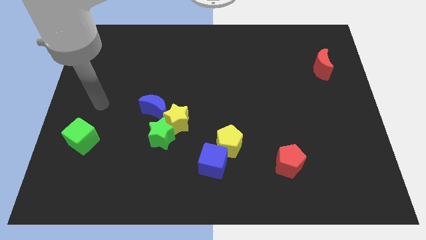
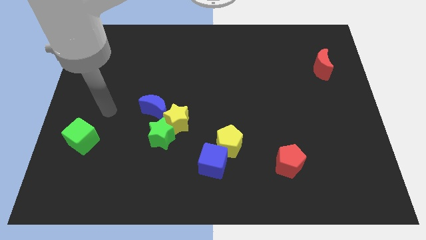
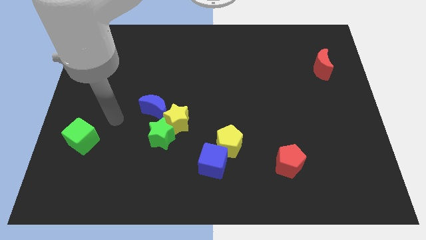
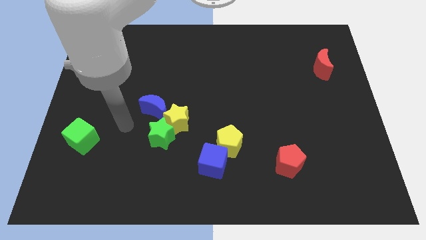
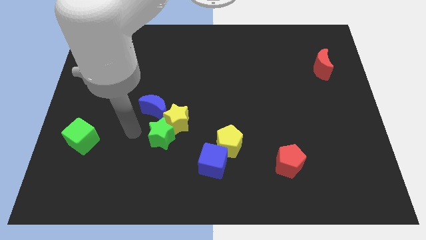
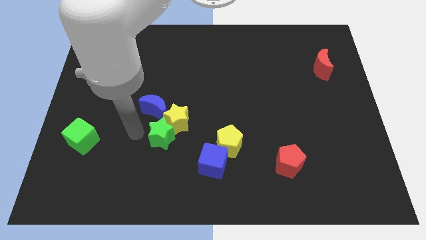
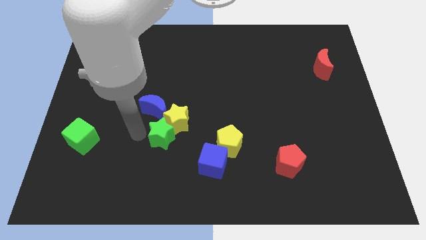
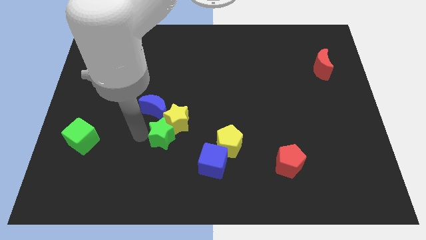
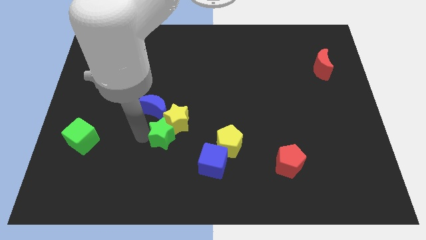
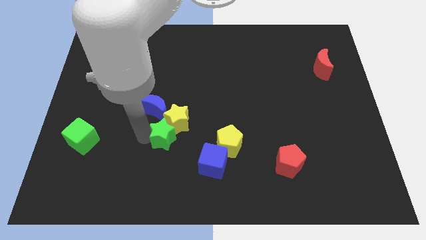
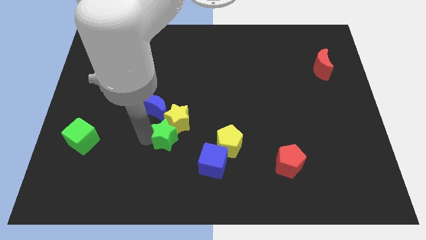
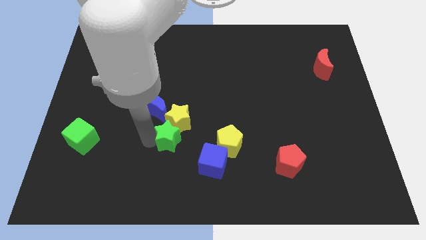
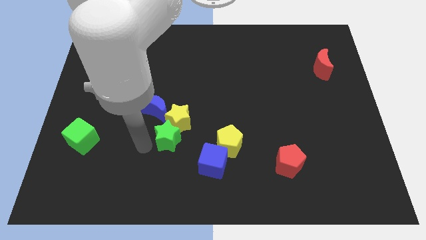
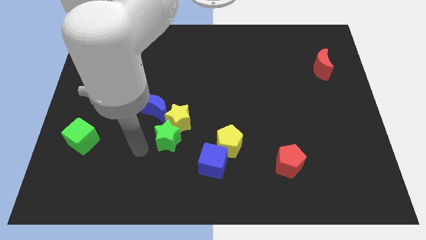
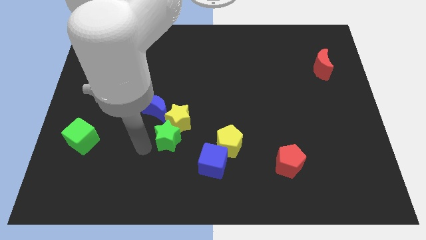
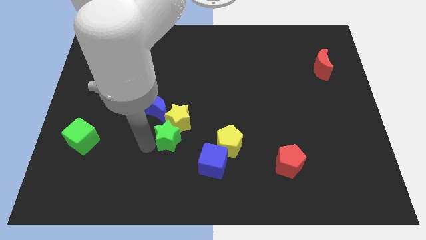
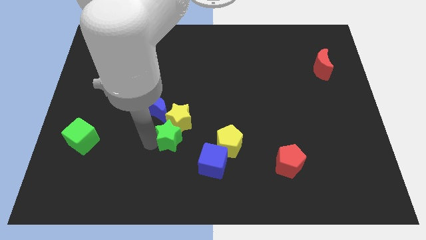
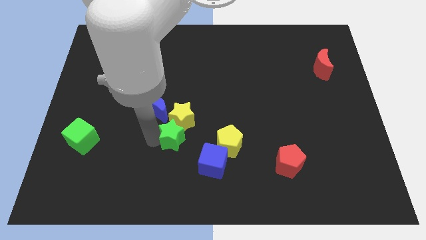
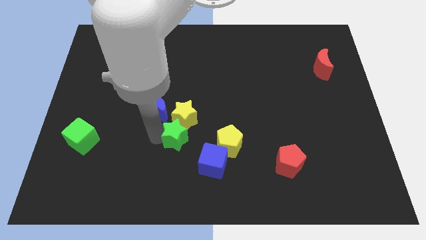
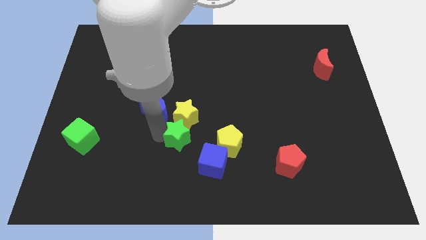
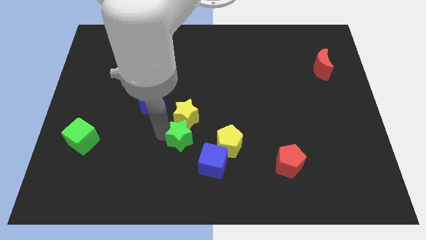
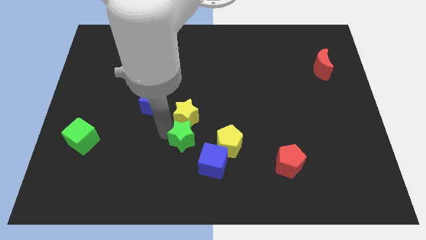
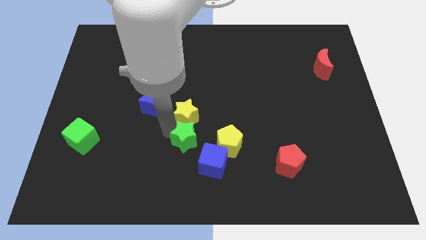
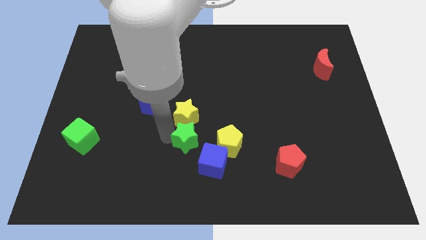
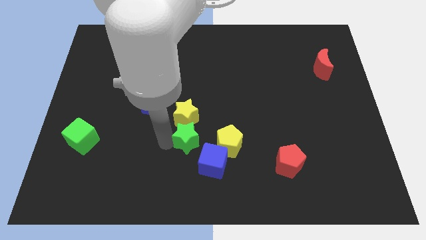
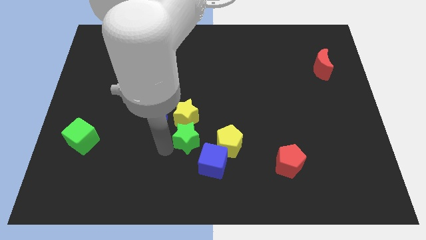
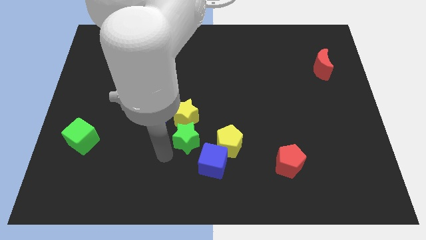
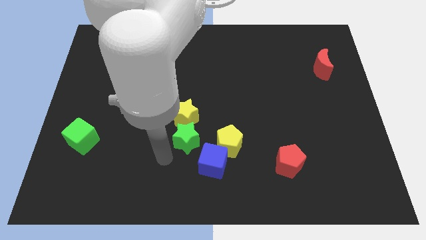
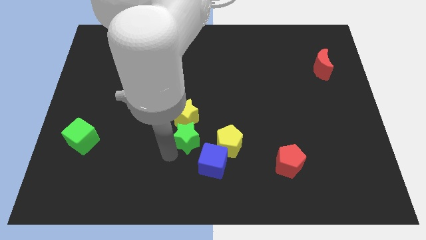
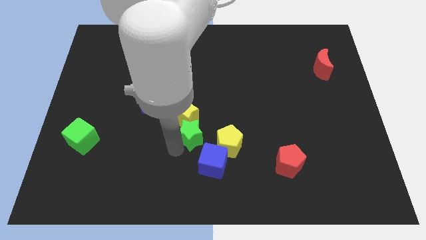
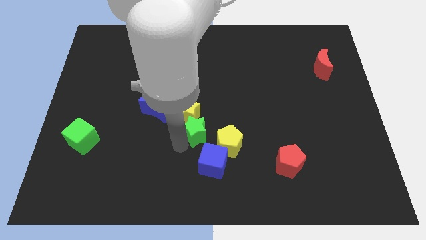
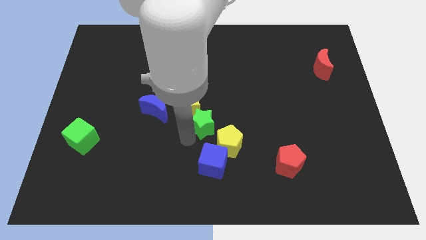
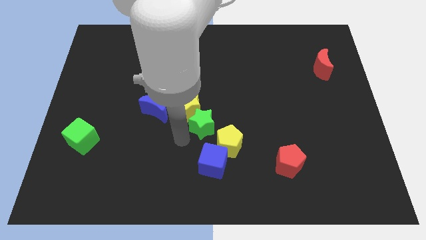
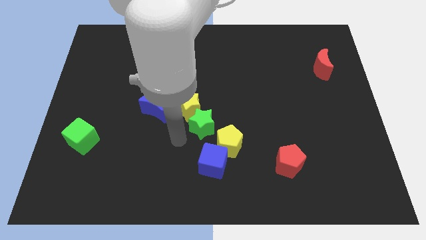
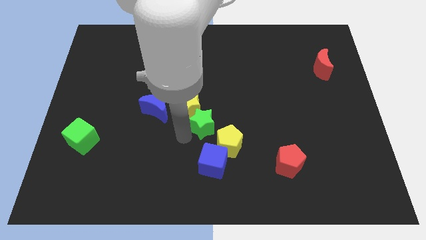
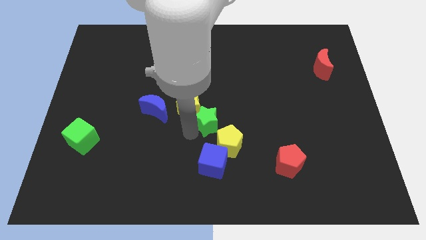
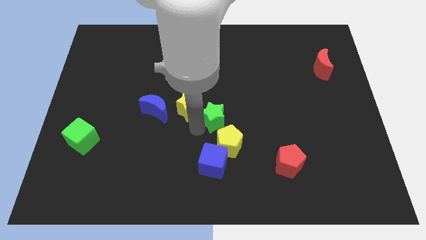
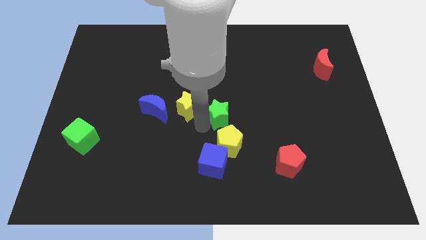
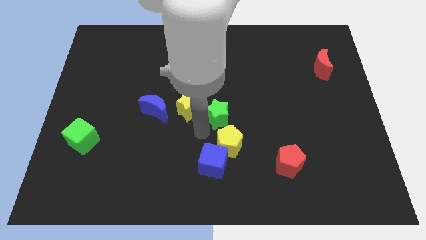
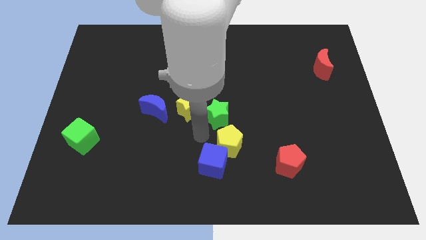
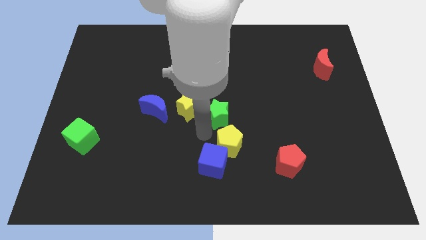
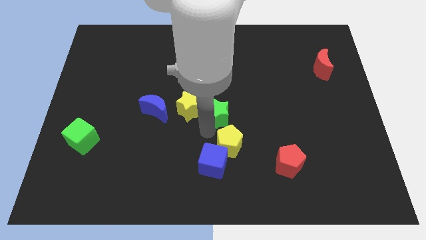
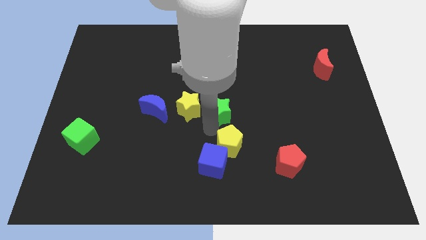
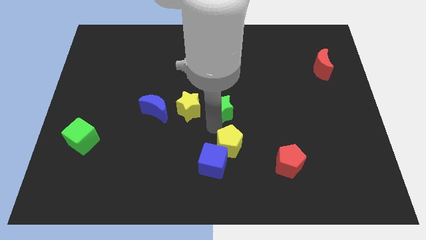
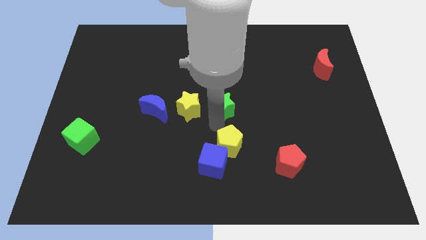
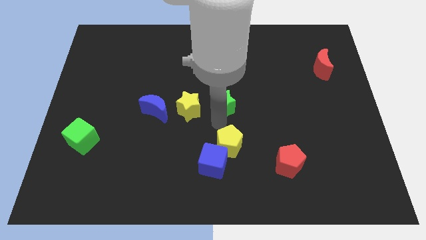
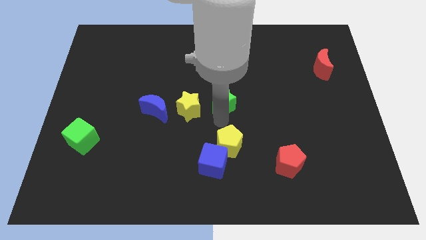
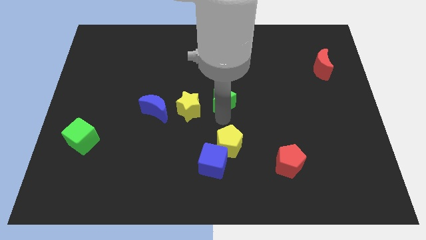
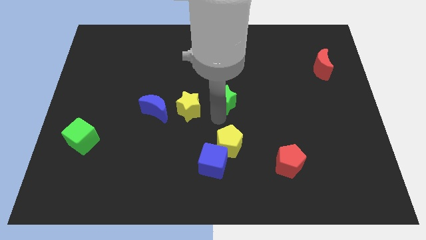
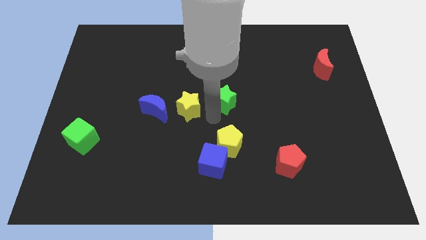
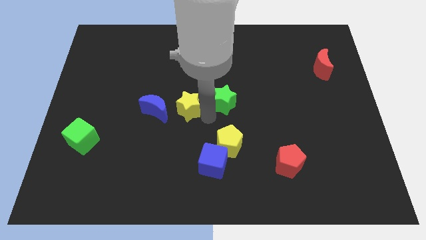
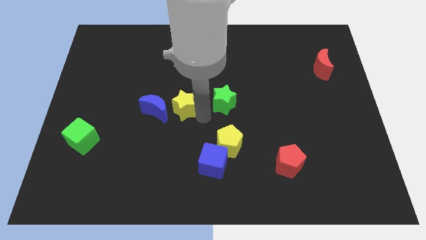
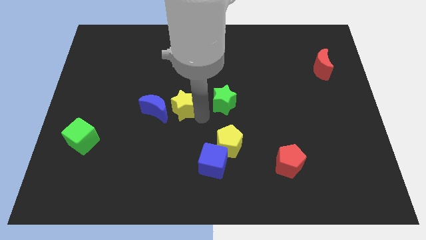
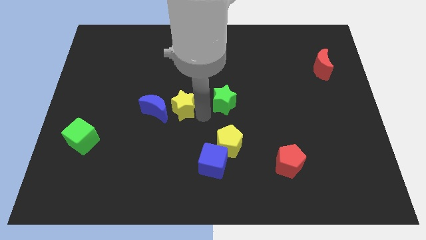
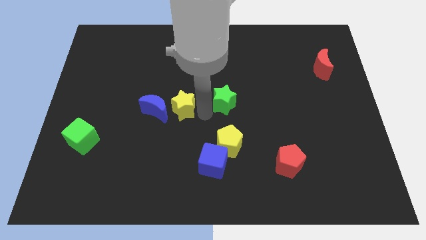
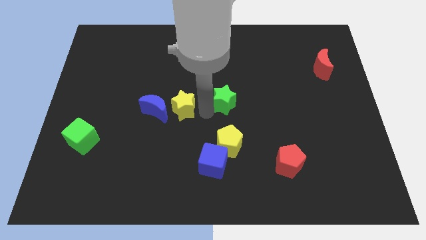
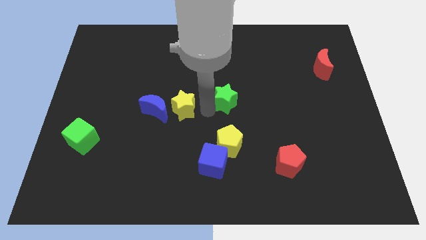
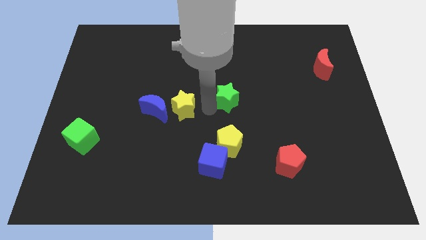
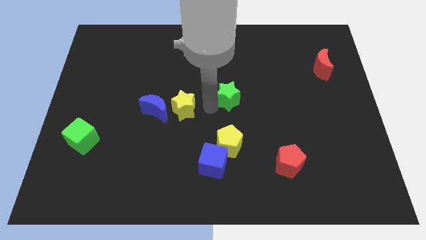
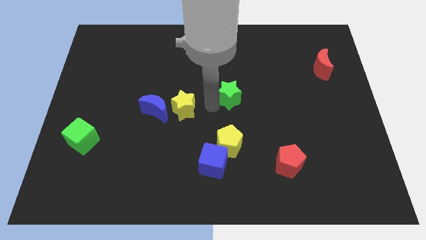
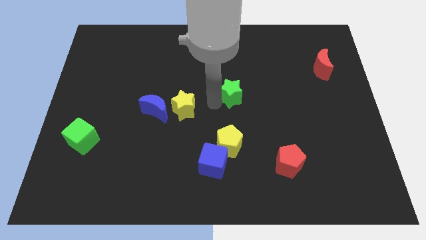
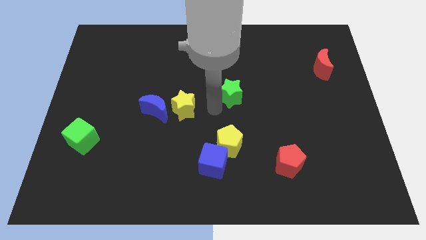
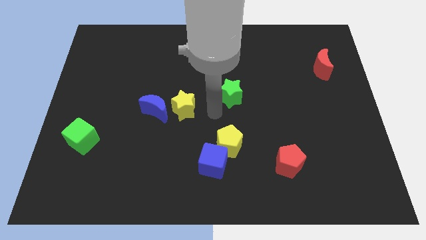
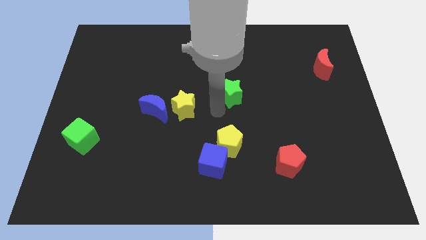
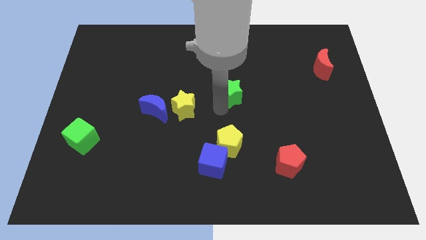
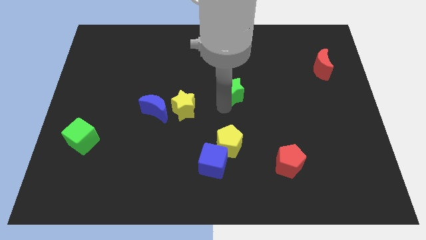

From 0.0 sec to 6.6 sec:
slide the green star upwards and to the right

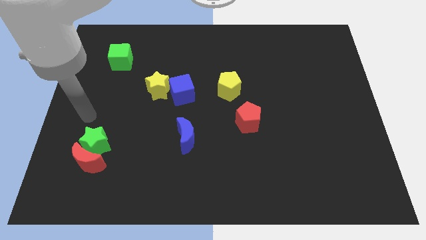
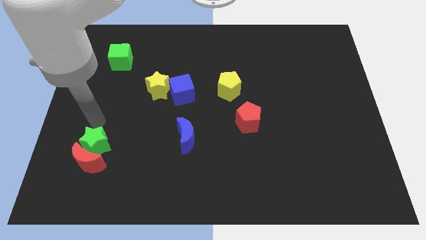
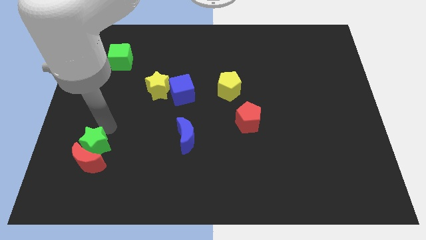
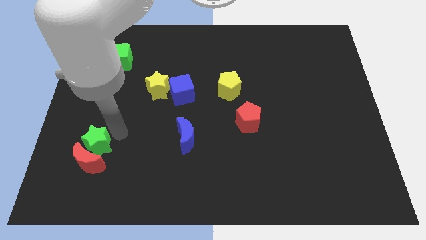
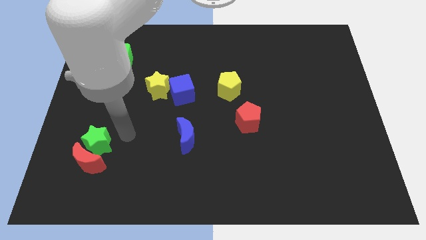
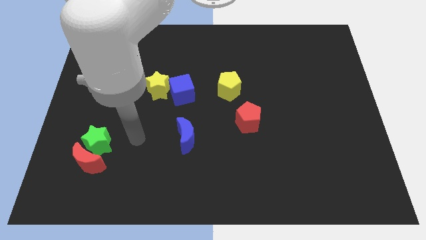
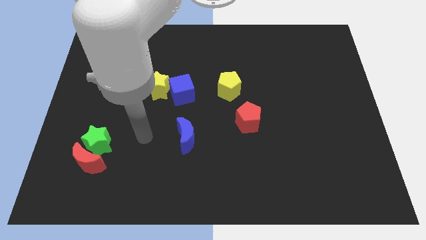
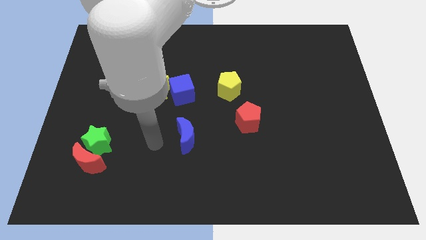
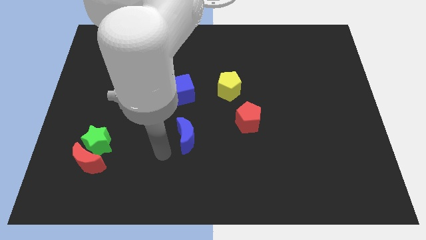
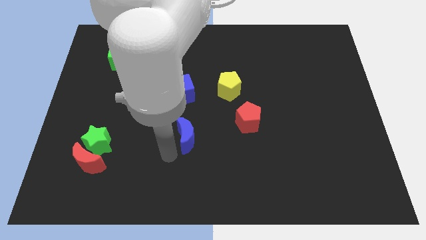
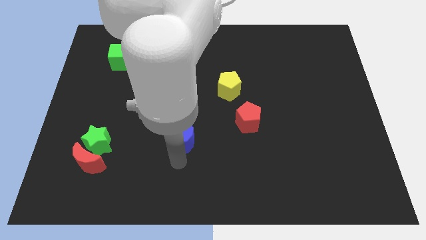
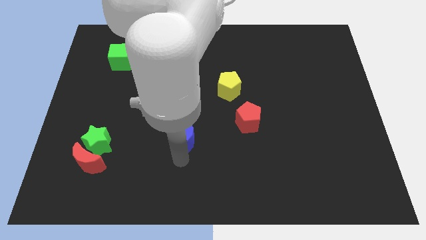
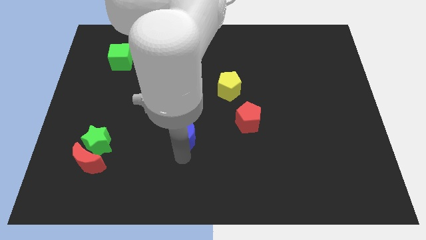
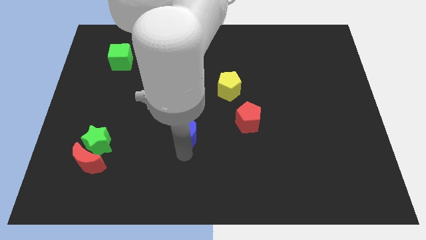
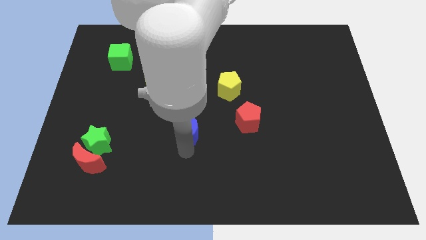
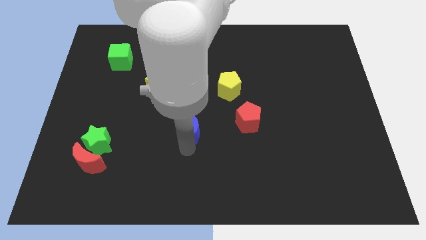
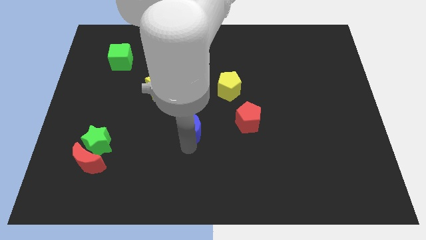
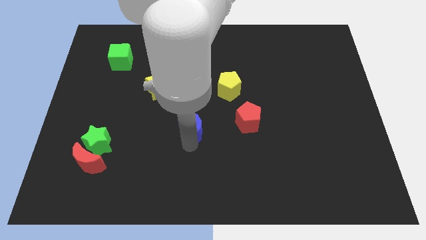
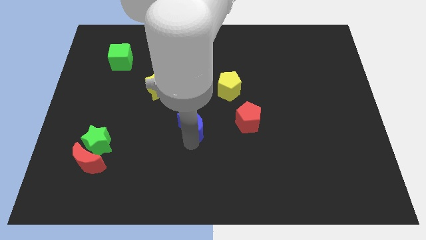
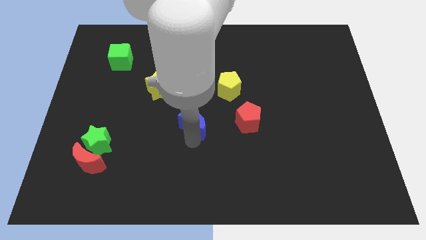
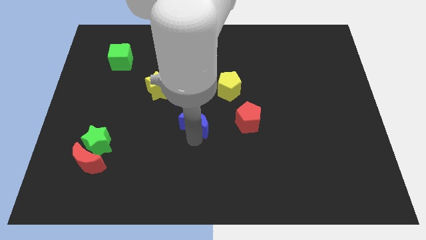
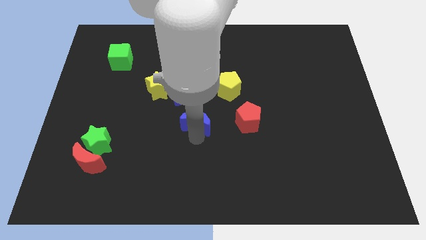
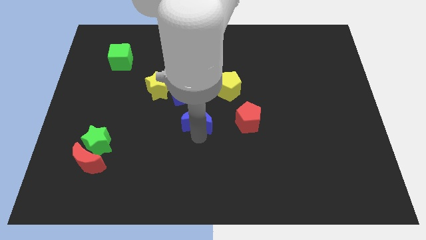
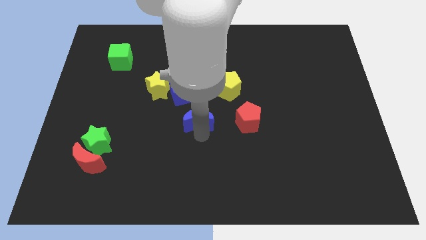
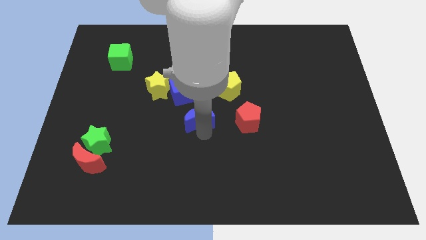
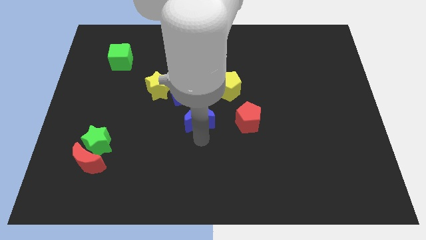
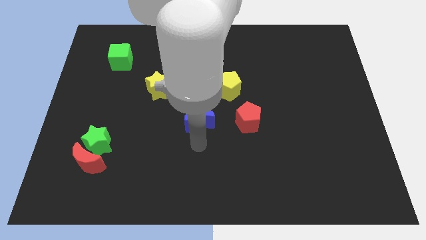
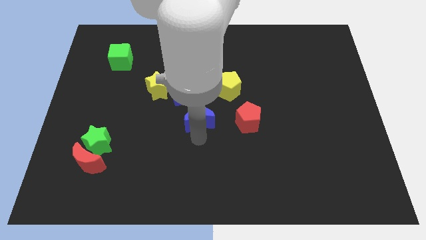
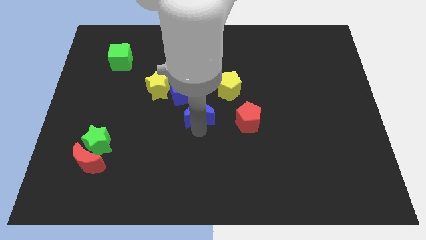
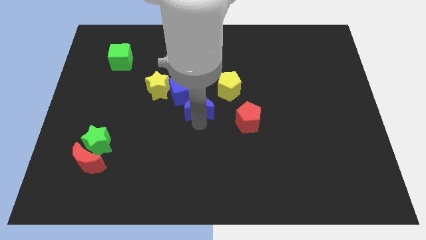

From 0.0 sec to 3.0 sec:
move the blue moon up slightly
